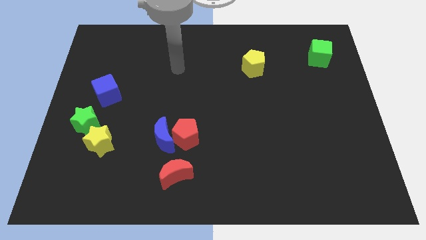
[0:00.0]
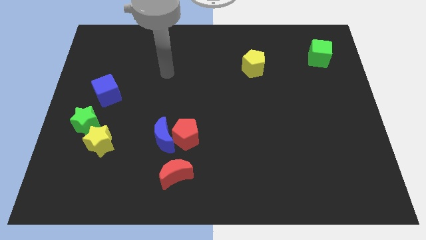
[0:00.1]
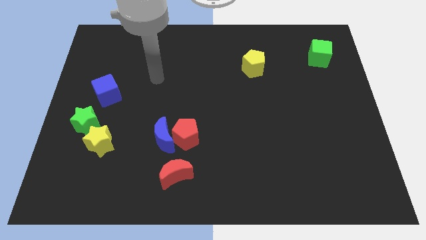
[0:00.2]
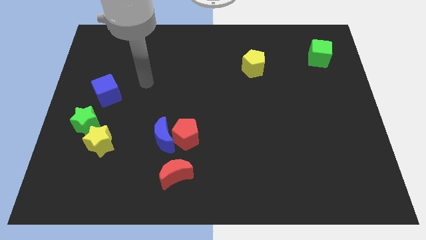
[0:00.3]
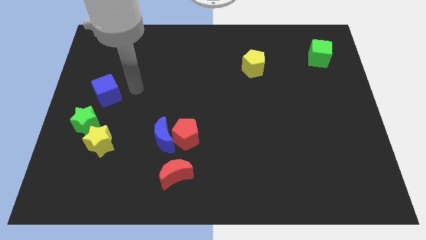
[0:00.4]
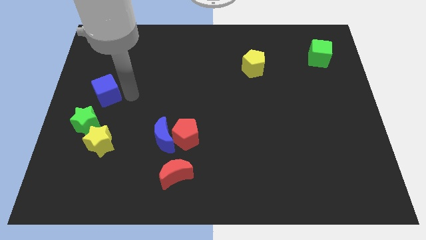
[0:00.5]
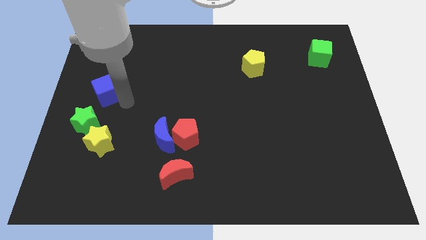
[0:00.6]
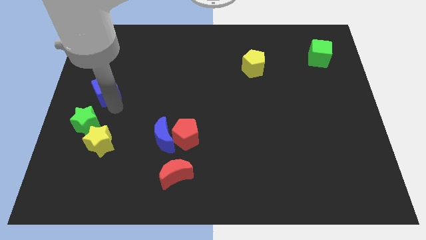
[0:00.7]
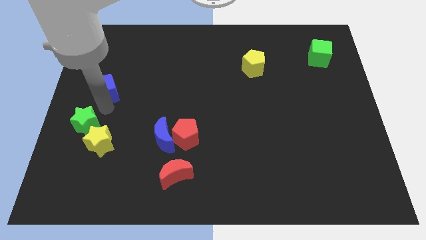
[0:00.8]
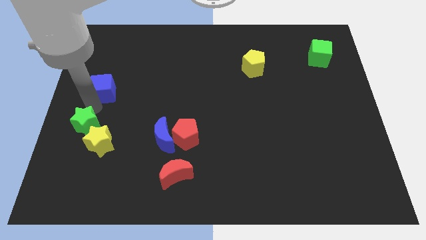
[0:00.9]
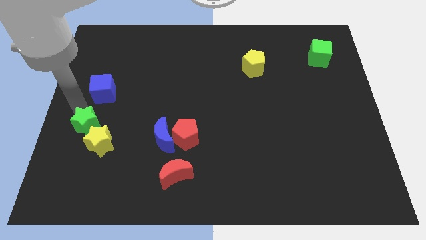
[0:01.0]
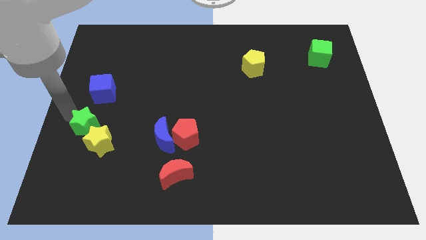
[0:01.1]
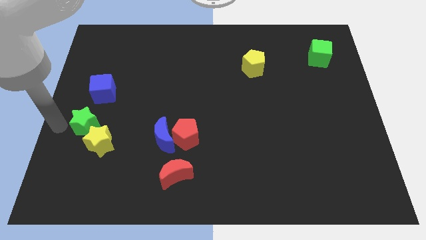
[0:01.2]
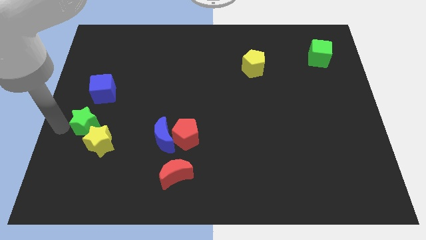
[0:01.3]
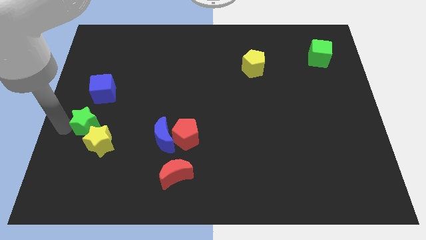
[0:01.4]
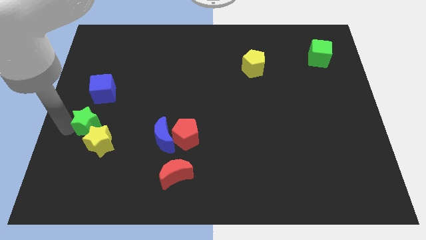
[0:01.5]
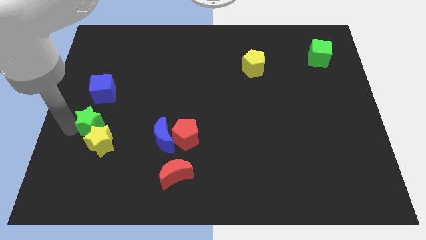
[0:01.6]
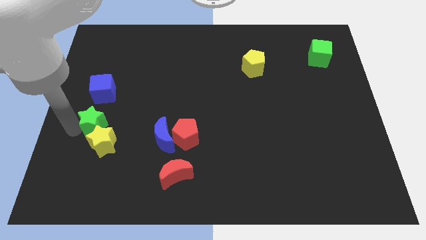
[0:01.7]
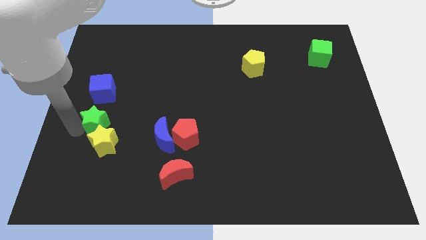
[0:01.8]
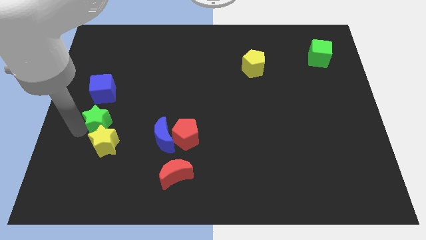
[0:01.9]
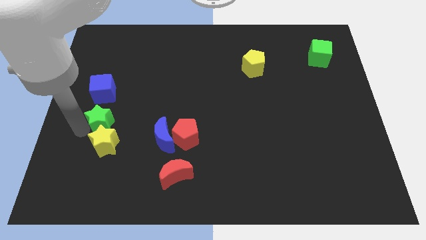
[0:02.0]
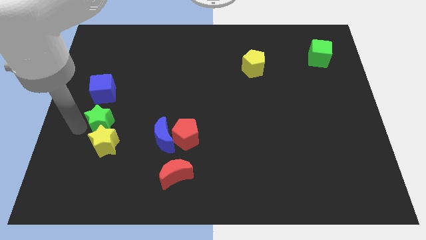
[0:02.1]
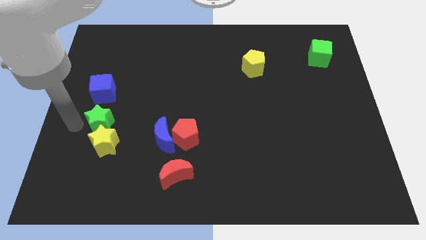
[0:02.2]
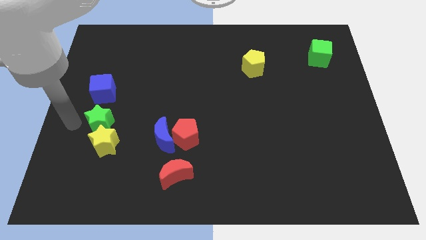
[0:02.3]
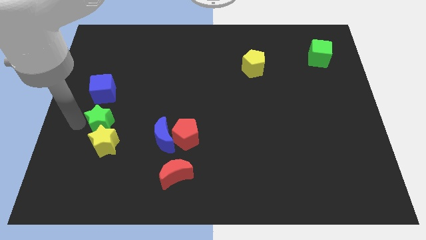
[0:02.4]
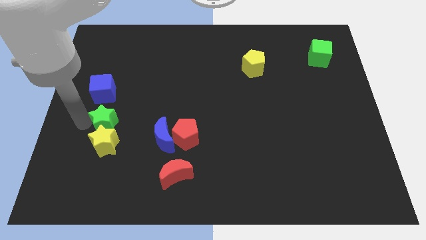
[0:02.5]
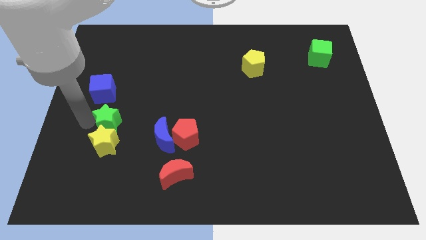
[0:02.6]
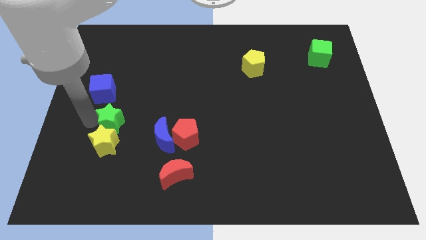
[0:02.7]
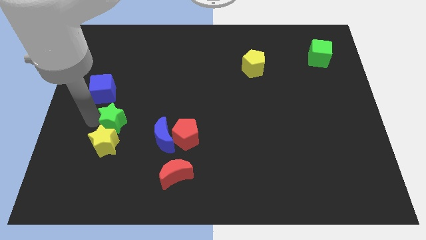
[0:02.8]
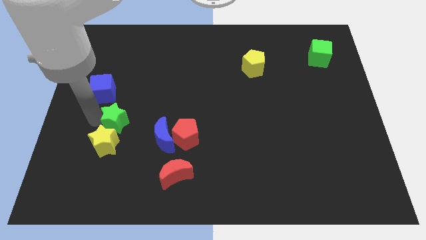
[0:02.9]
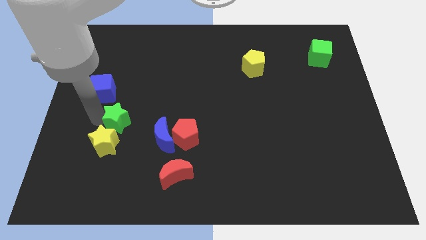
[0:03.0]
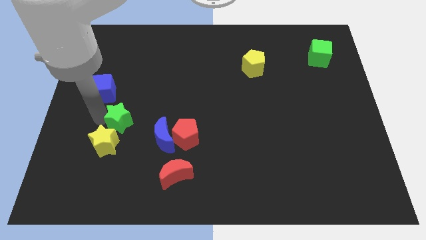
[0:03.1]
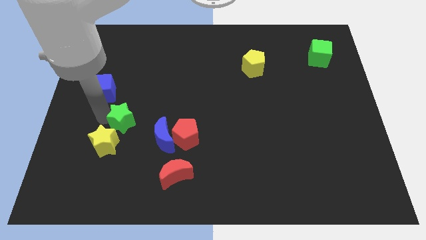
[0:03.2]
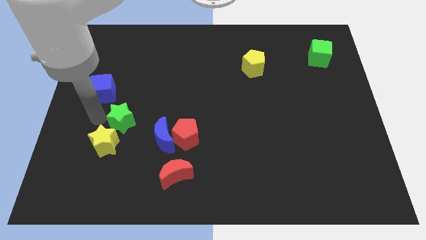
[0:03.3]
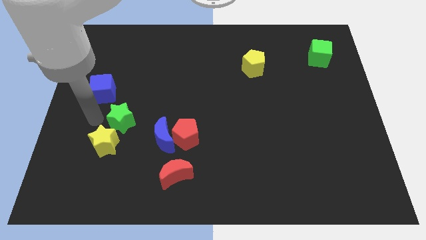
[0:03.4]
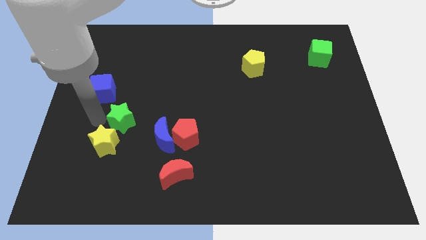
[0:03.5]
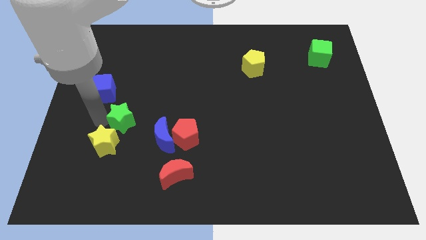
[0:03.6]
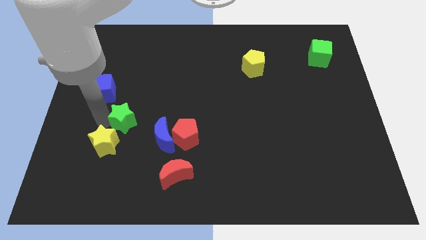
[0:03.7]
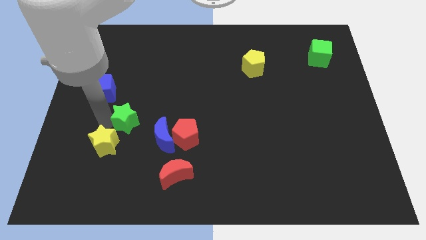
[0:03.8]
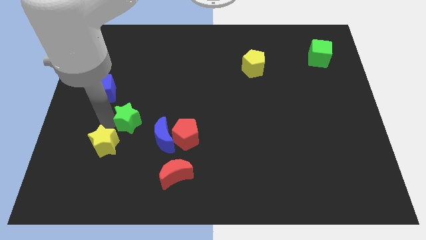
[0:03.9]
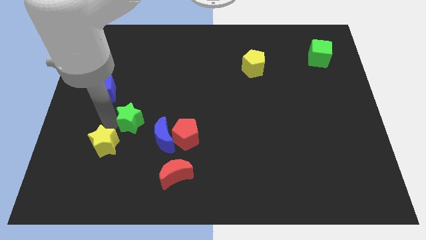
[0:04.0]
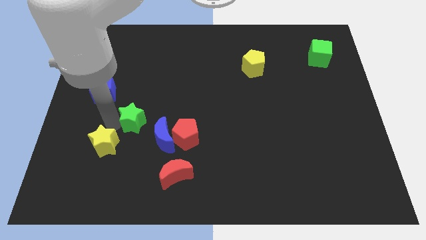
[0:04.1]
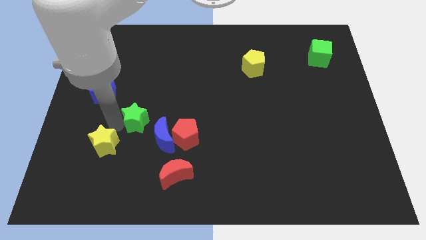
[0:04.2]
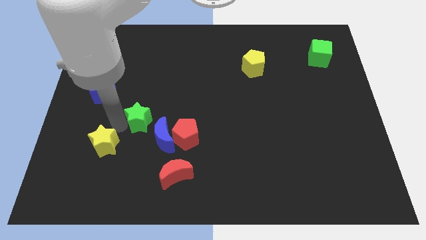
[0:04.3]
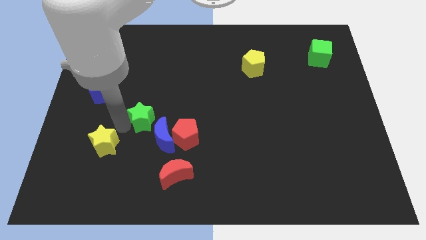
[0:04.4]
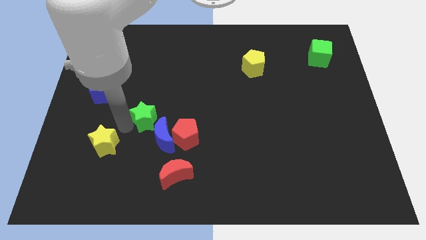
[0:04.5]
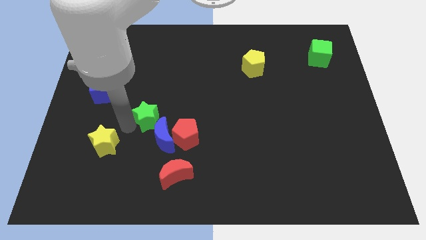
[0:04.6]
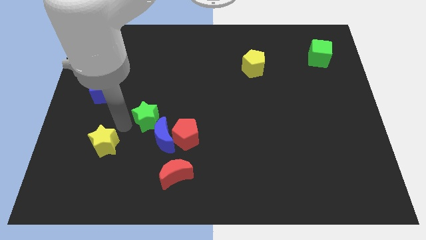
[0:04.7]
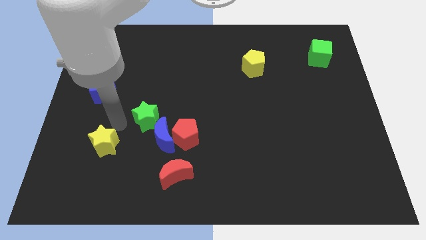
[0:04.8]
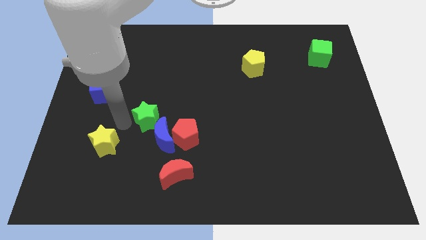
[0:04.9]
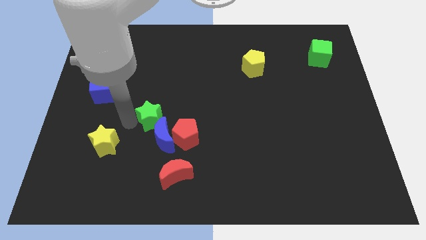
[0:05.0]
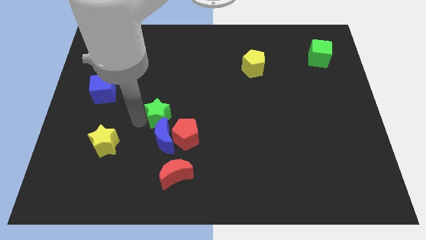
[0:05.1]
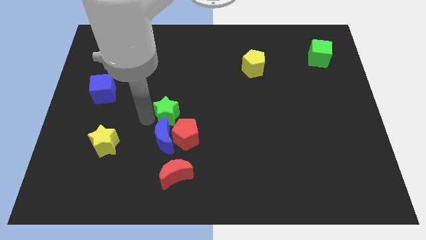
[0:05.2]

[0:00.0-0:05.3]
push the green star to the middle

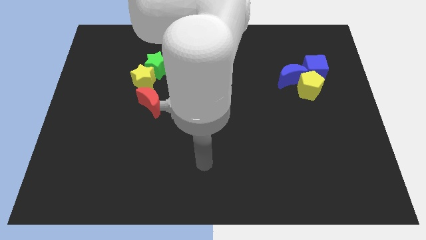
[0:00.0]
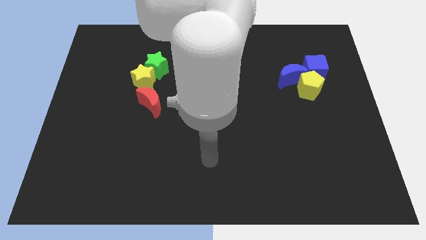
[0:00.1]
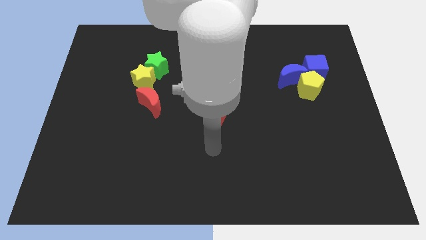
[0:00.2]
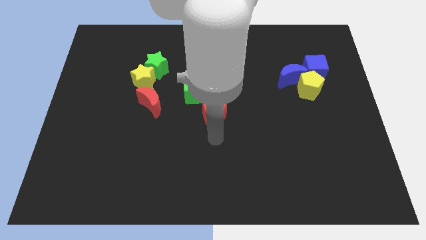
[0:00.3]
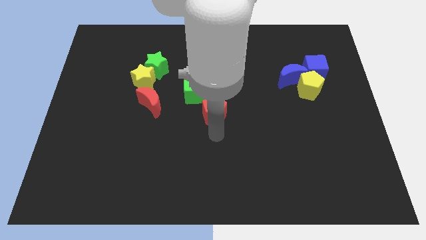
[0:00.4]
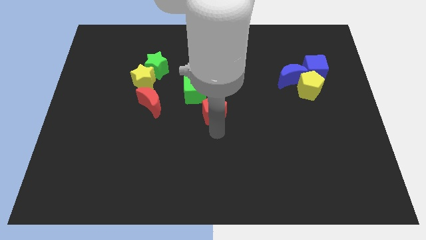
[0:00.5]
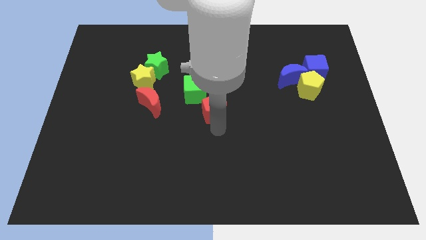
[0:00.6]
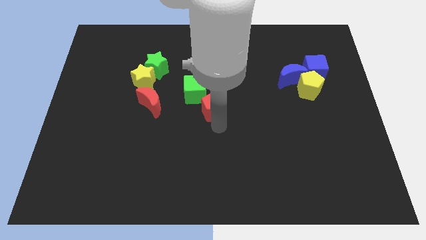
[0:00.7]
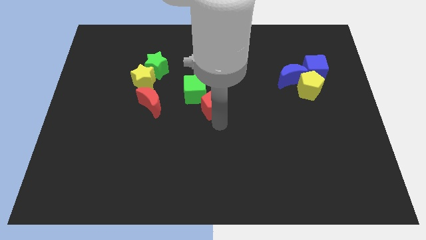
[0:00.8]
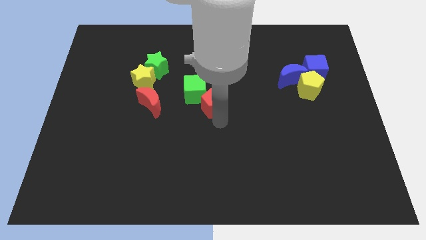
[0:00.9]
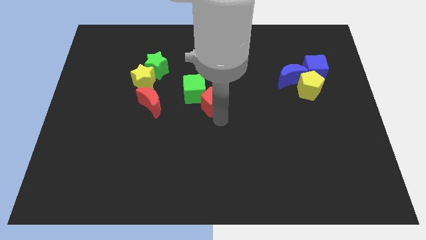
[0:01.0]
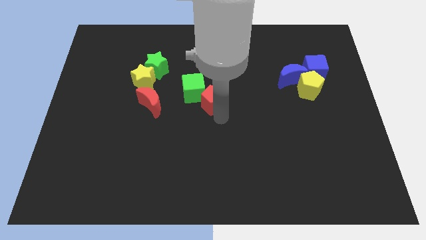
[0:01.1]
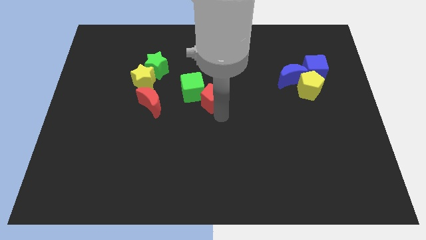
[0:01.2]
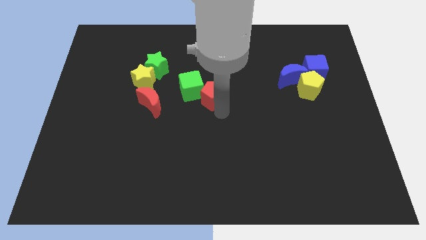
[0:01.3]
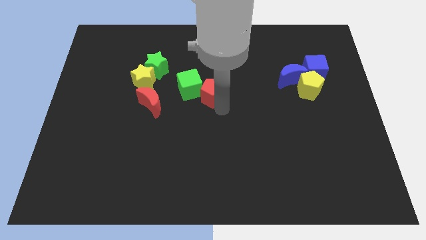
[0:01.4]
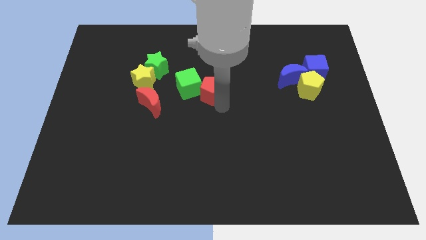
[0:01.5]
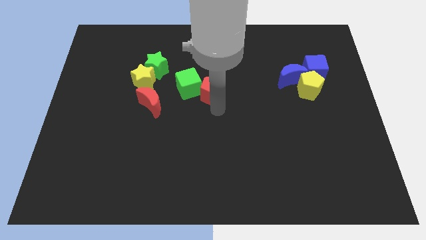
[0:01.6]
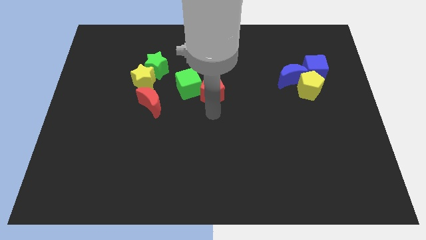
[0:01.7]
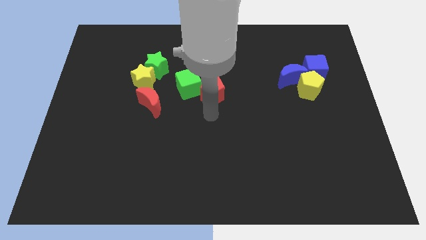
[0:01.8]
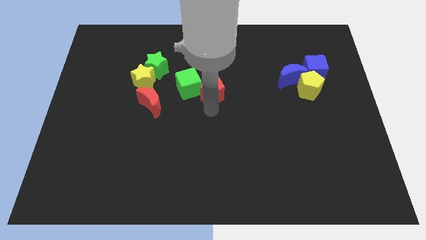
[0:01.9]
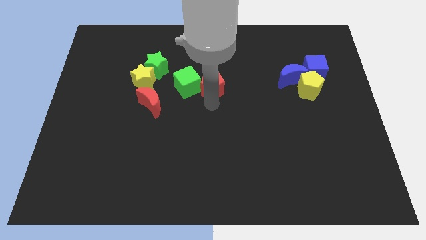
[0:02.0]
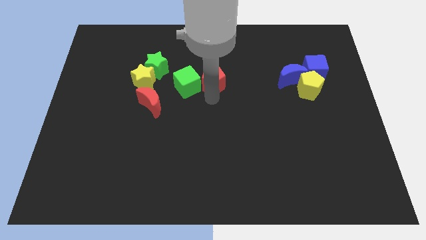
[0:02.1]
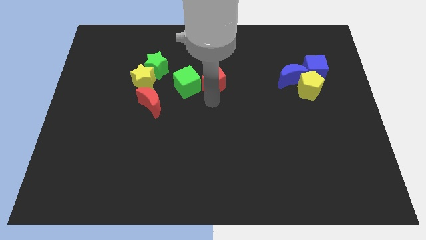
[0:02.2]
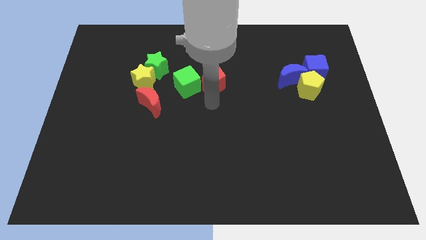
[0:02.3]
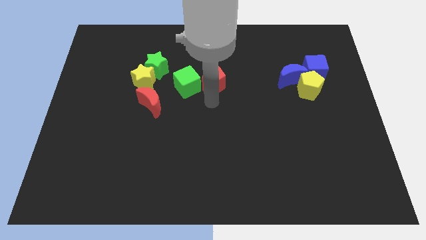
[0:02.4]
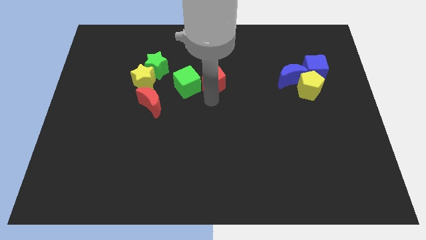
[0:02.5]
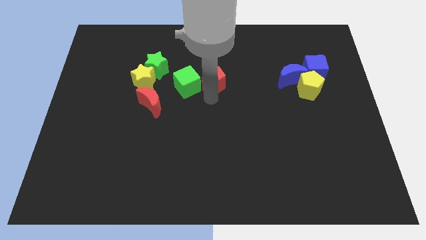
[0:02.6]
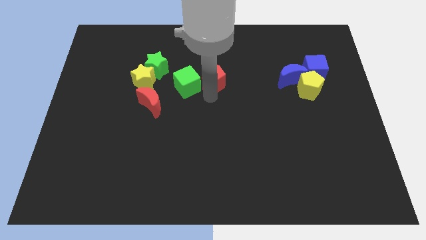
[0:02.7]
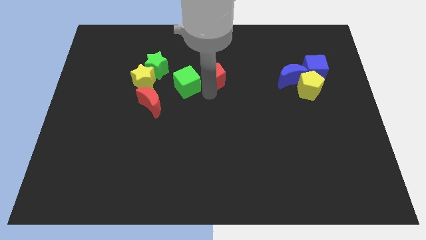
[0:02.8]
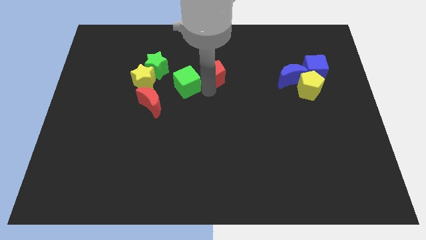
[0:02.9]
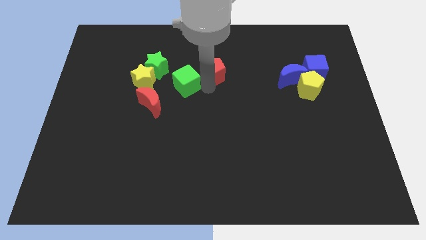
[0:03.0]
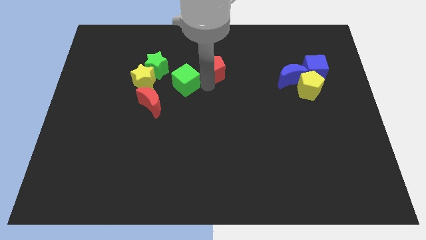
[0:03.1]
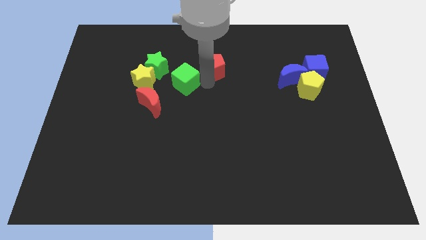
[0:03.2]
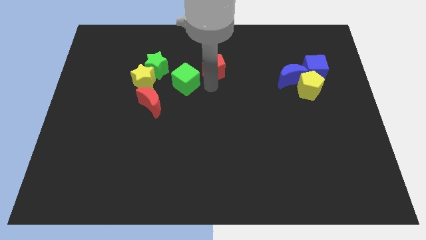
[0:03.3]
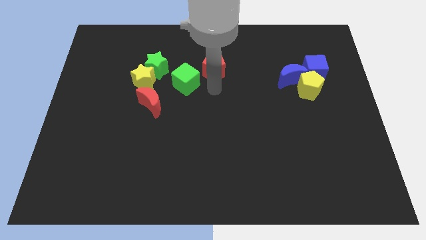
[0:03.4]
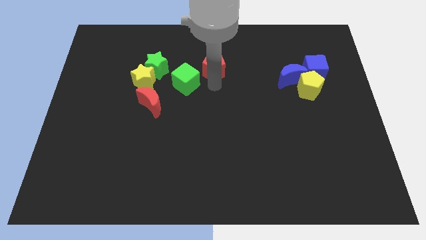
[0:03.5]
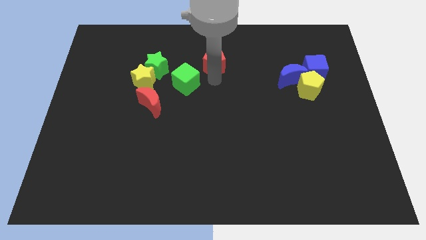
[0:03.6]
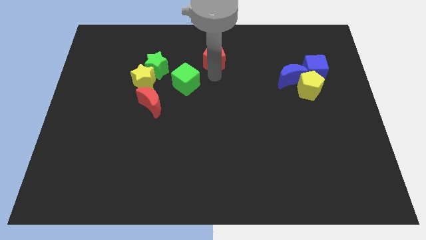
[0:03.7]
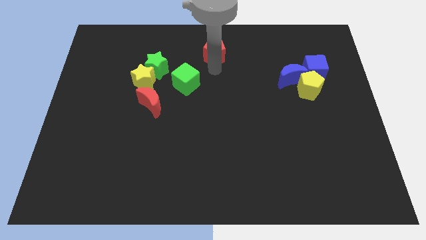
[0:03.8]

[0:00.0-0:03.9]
slide the red pentagon to the top side
